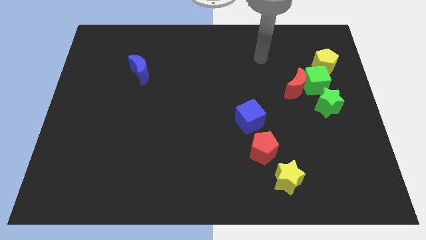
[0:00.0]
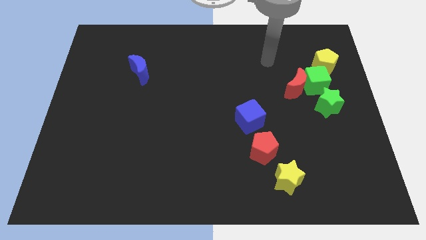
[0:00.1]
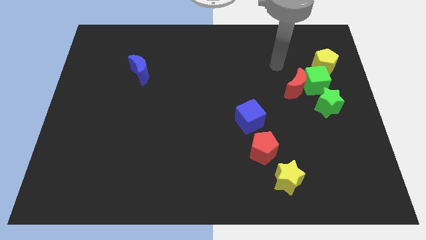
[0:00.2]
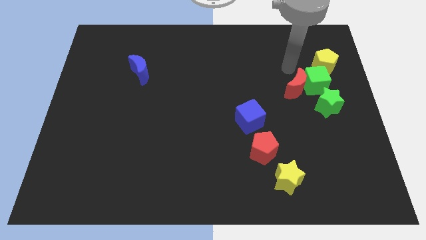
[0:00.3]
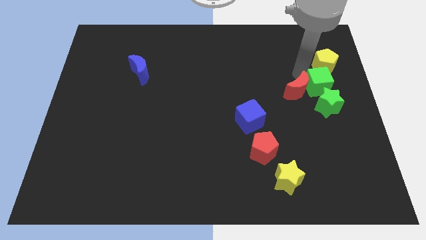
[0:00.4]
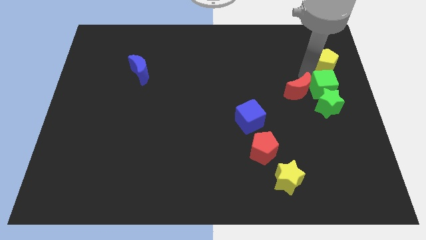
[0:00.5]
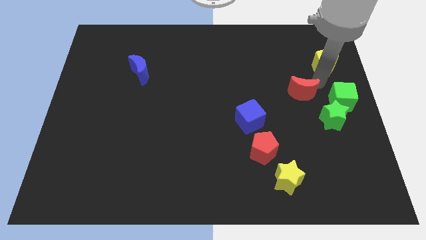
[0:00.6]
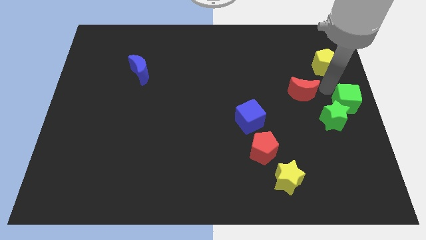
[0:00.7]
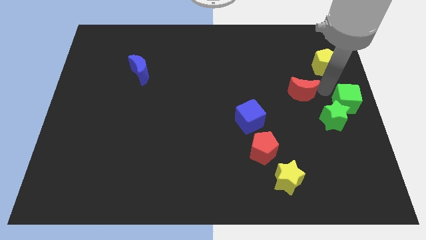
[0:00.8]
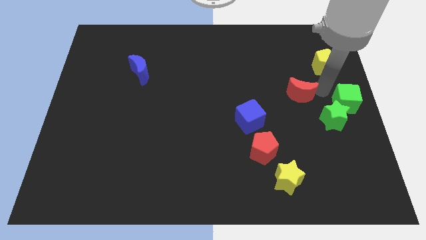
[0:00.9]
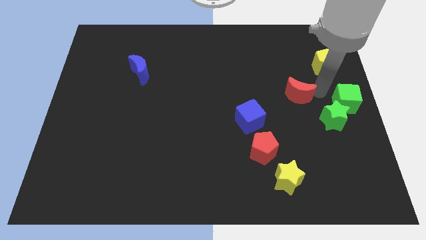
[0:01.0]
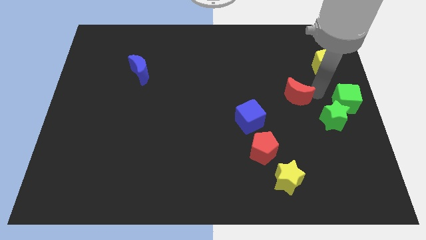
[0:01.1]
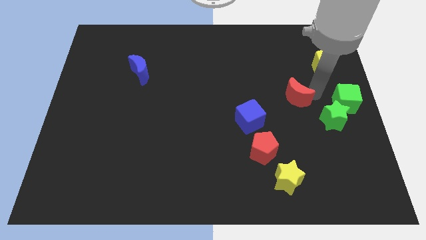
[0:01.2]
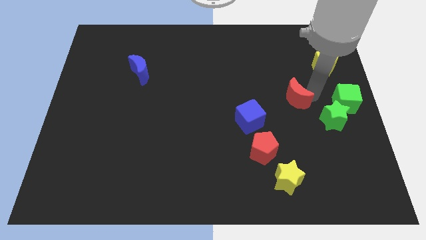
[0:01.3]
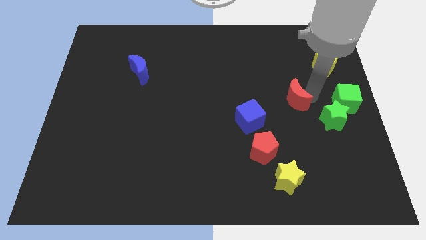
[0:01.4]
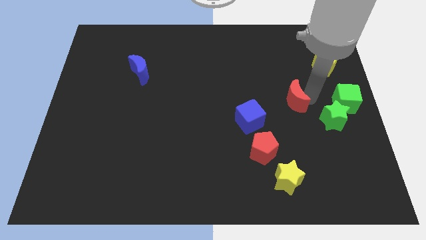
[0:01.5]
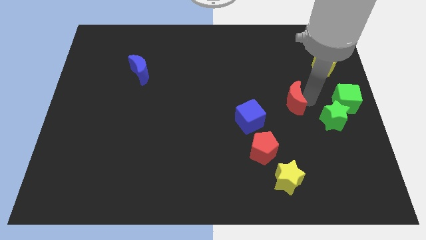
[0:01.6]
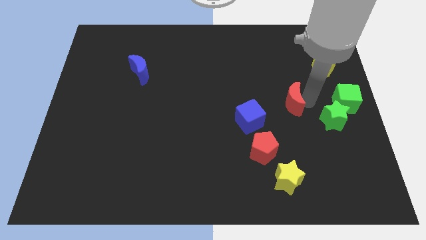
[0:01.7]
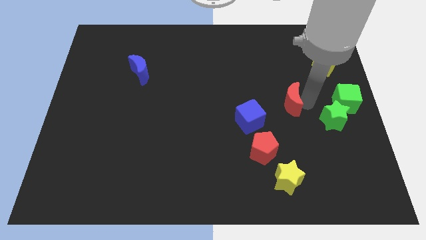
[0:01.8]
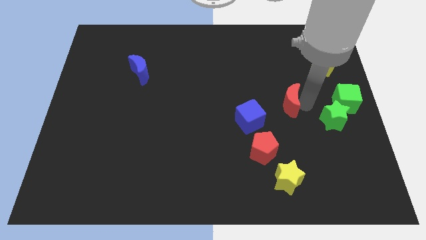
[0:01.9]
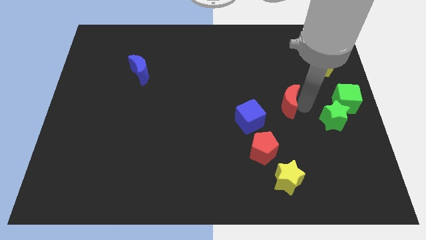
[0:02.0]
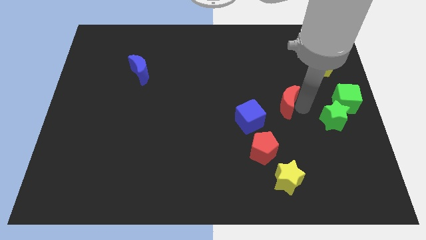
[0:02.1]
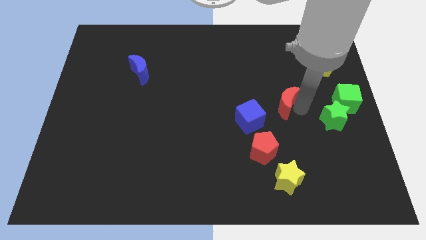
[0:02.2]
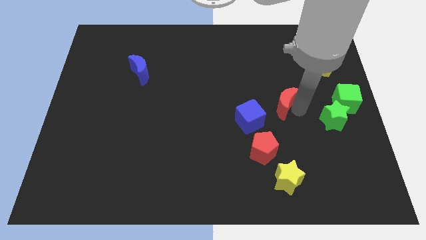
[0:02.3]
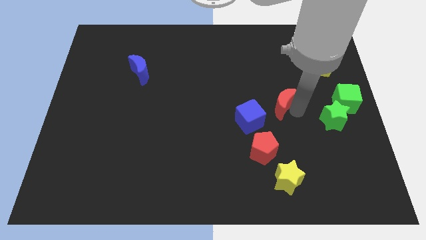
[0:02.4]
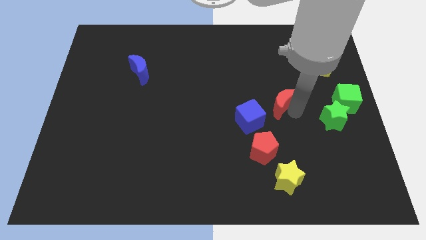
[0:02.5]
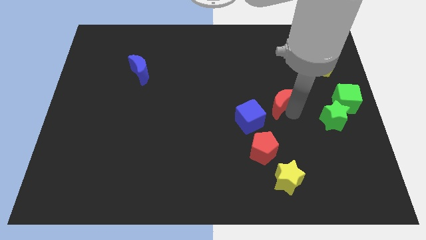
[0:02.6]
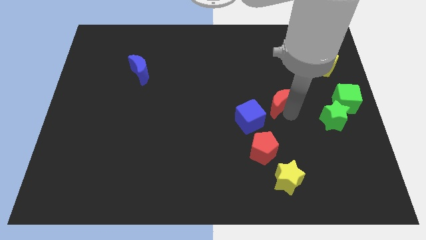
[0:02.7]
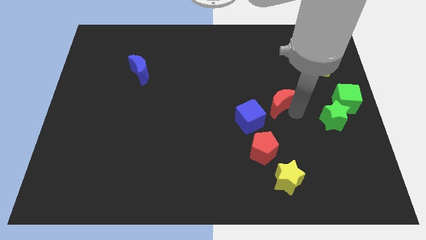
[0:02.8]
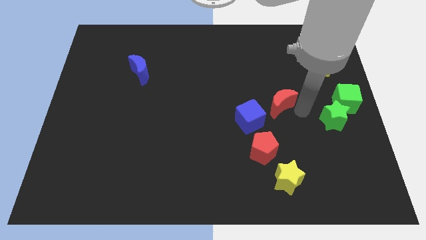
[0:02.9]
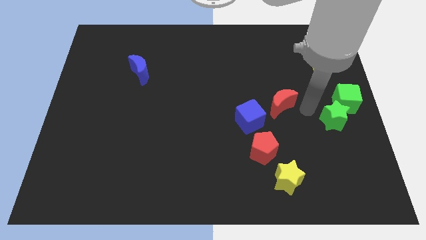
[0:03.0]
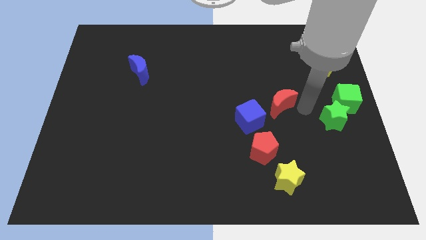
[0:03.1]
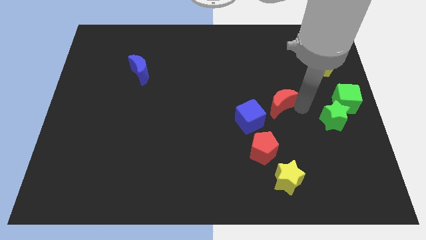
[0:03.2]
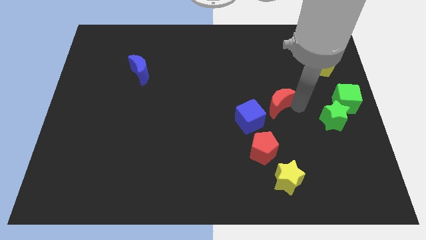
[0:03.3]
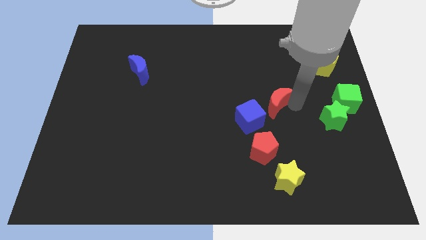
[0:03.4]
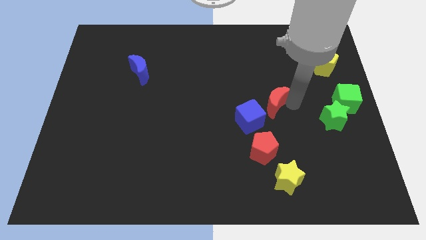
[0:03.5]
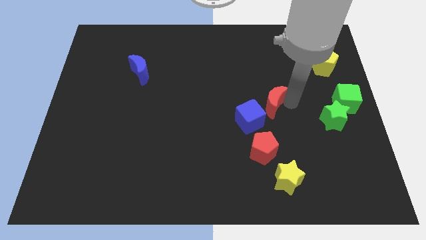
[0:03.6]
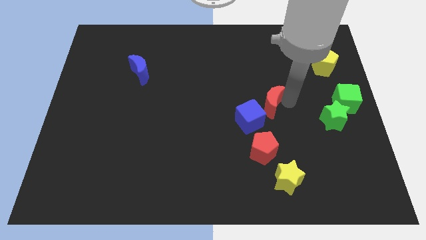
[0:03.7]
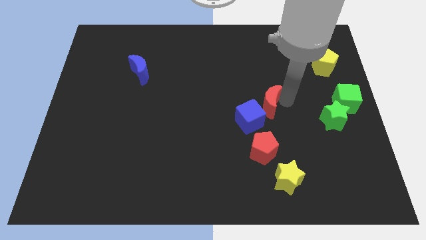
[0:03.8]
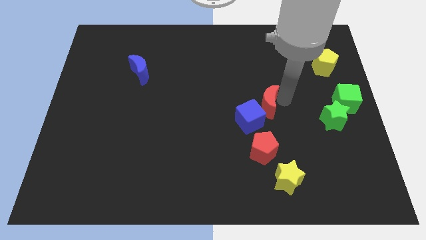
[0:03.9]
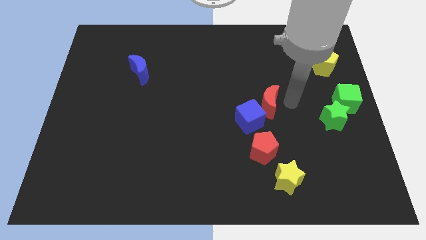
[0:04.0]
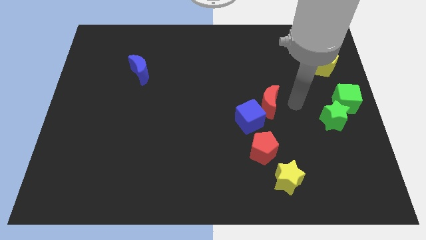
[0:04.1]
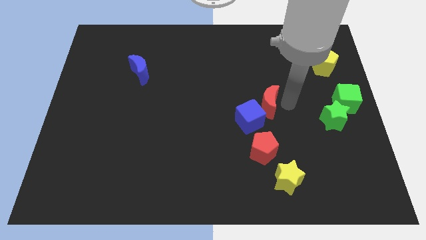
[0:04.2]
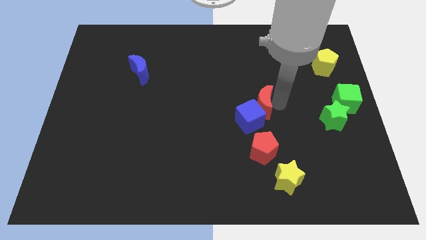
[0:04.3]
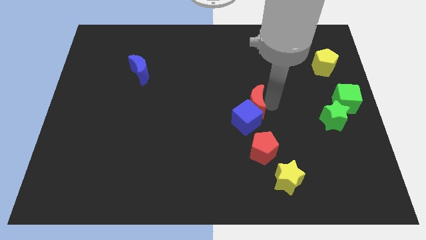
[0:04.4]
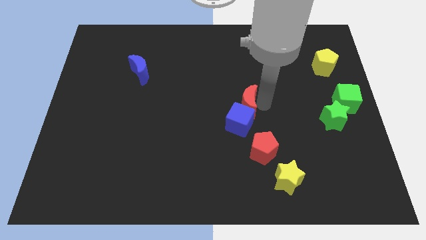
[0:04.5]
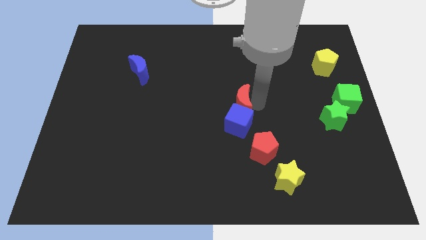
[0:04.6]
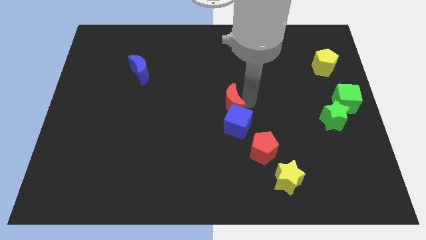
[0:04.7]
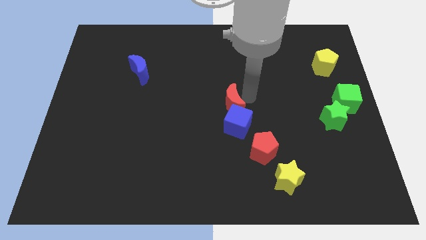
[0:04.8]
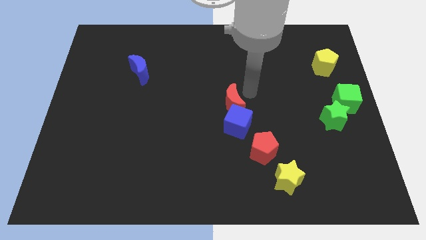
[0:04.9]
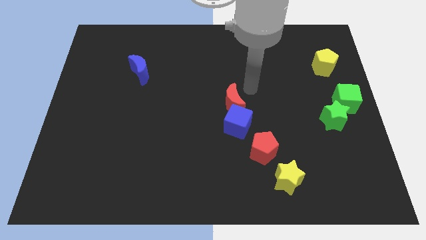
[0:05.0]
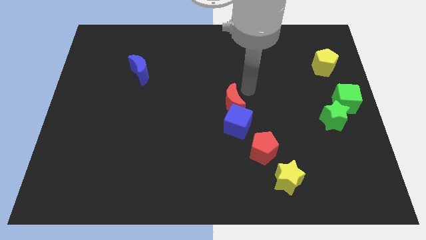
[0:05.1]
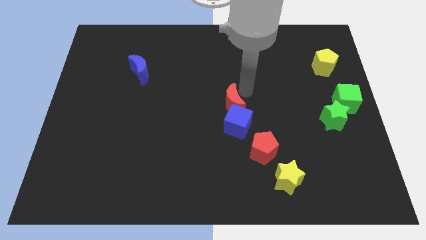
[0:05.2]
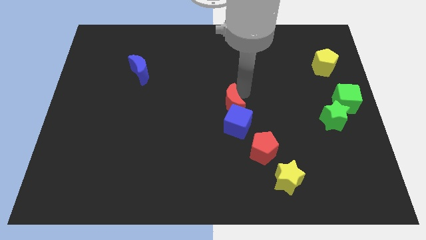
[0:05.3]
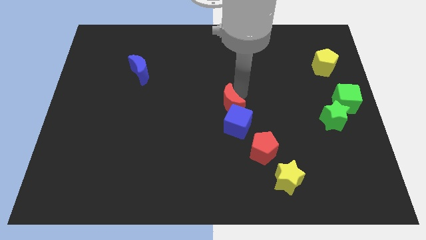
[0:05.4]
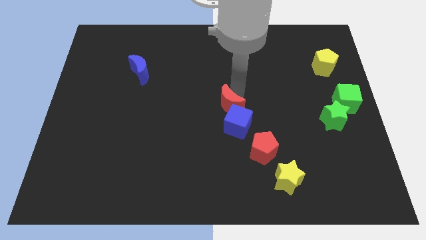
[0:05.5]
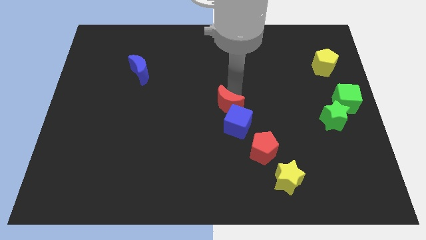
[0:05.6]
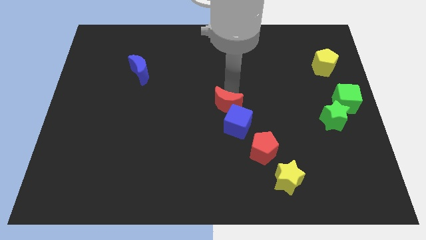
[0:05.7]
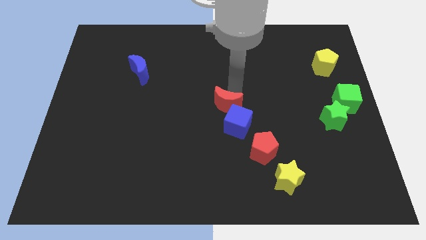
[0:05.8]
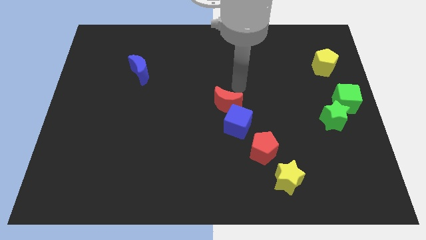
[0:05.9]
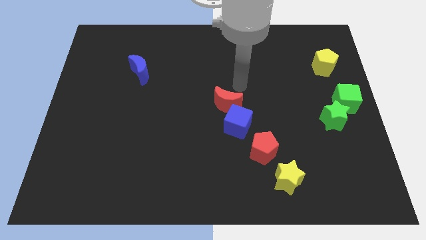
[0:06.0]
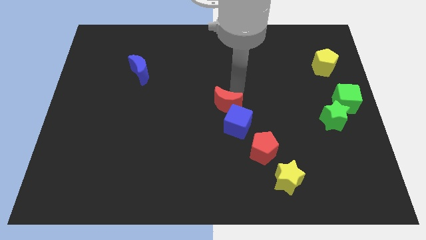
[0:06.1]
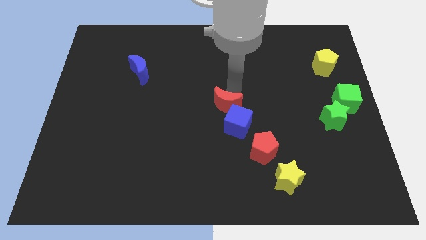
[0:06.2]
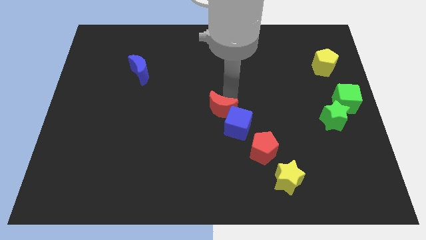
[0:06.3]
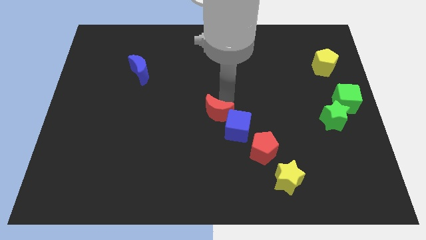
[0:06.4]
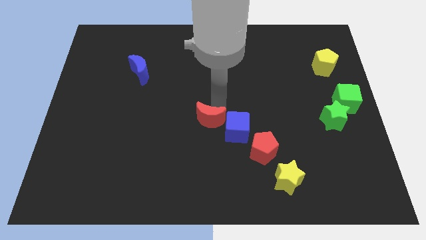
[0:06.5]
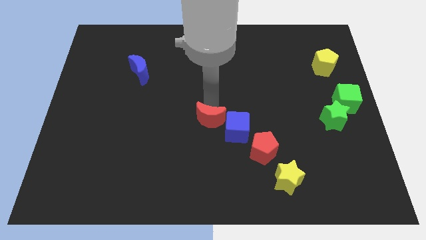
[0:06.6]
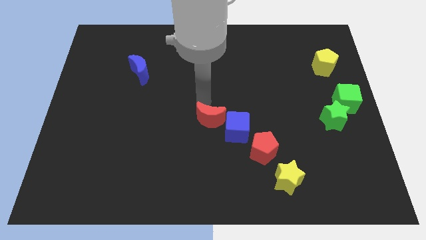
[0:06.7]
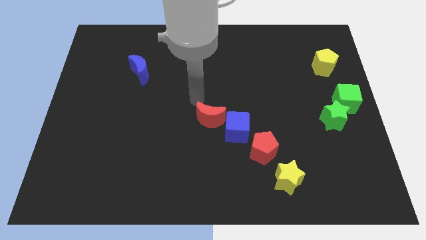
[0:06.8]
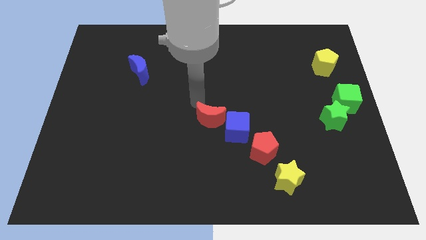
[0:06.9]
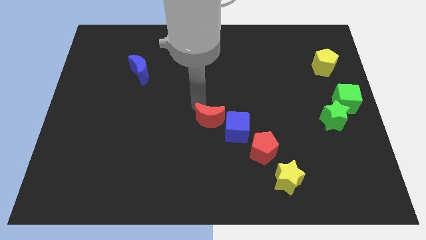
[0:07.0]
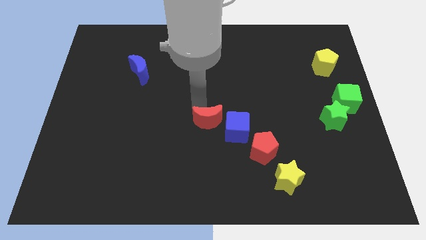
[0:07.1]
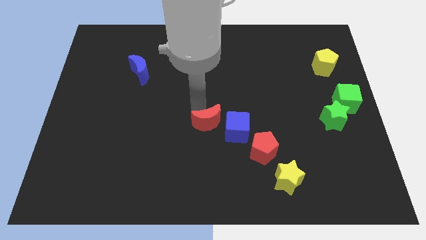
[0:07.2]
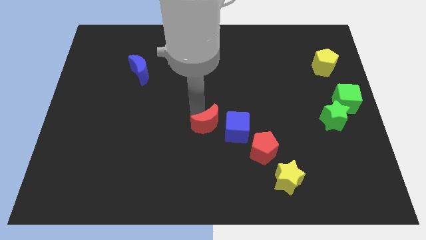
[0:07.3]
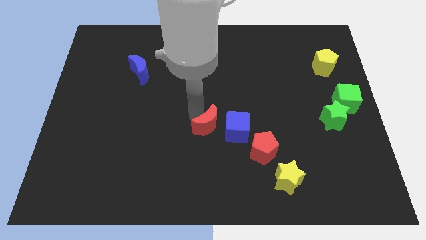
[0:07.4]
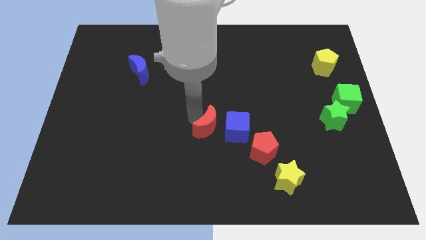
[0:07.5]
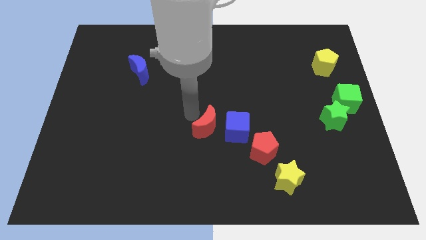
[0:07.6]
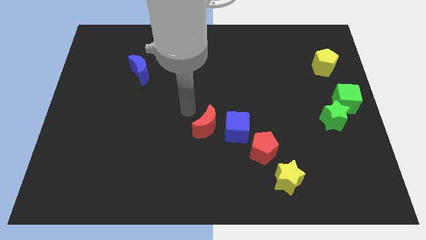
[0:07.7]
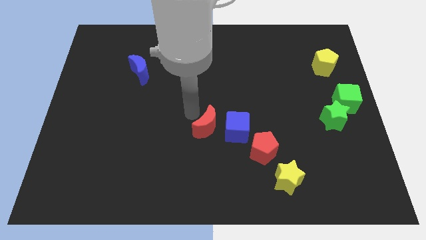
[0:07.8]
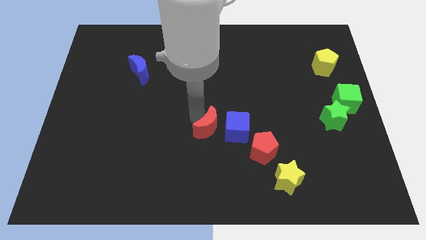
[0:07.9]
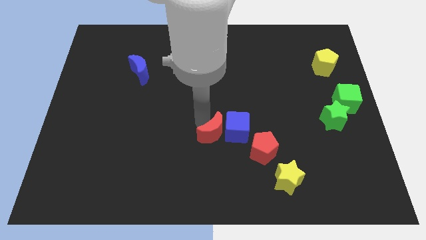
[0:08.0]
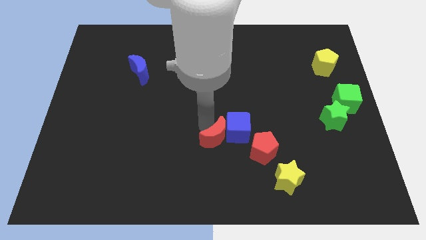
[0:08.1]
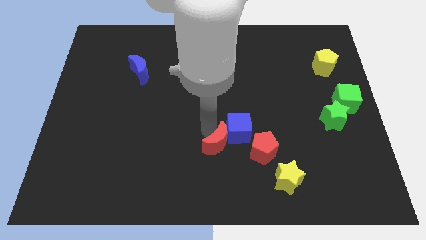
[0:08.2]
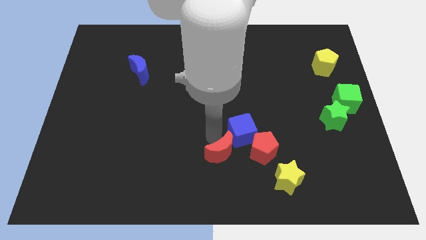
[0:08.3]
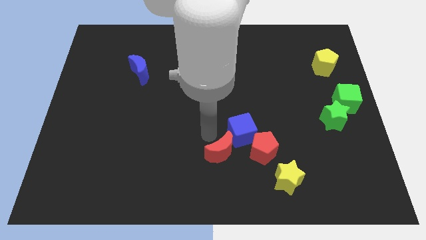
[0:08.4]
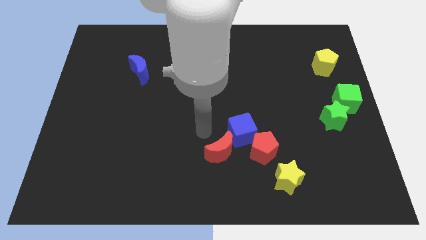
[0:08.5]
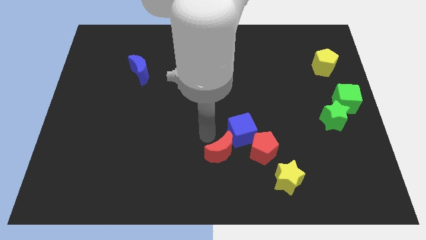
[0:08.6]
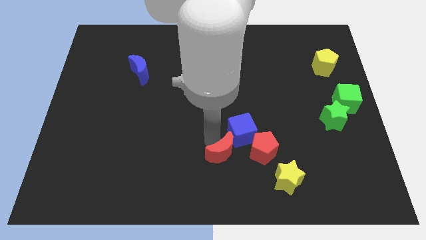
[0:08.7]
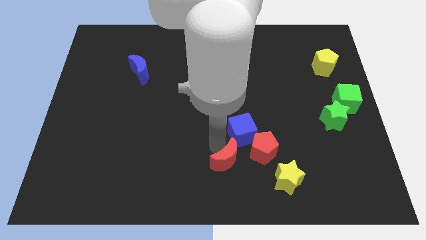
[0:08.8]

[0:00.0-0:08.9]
slide the red moon to the bottom left of the red pentagon
